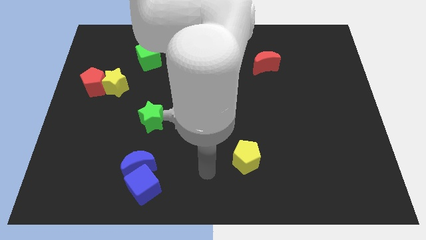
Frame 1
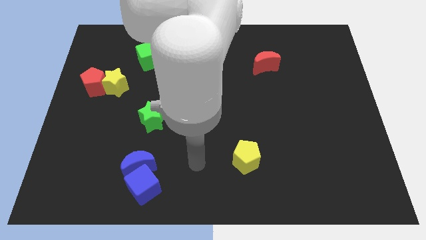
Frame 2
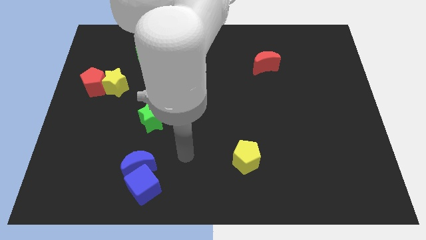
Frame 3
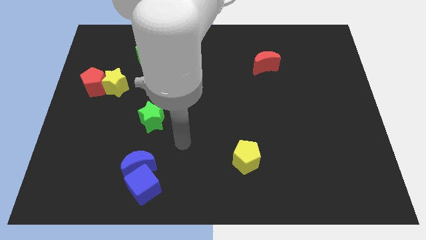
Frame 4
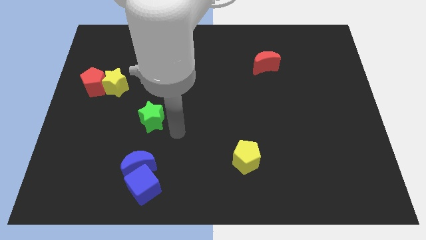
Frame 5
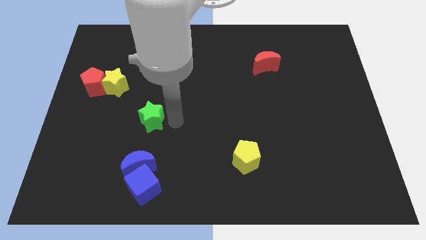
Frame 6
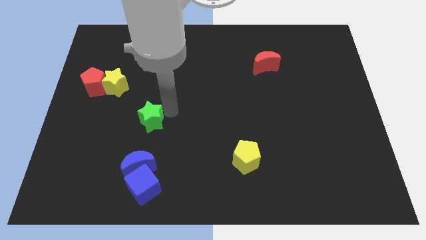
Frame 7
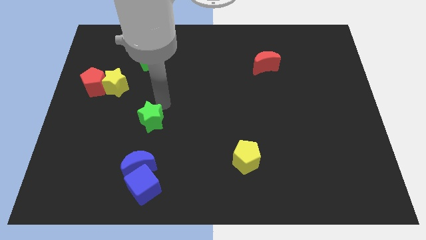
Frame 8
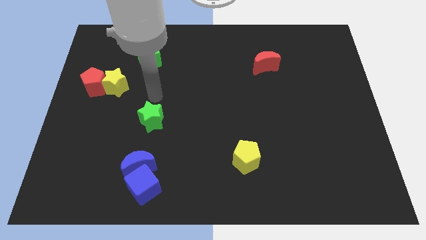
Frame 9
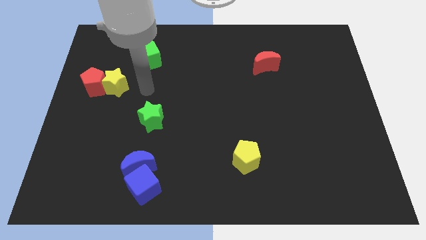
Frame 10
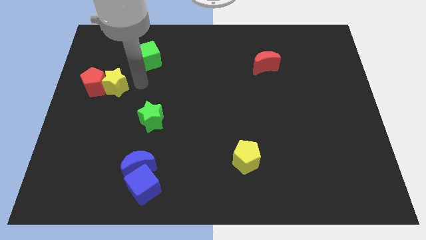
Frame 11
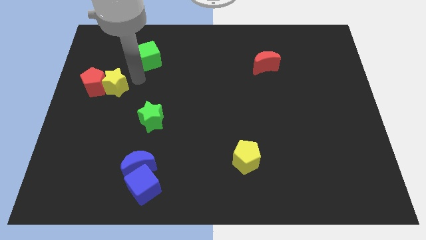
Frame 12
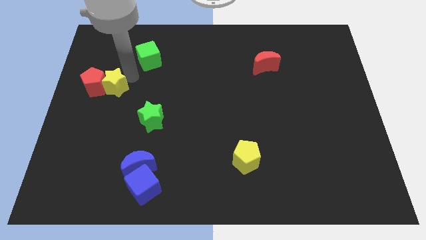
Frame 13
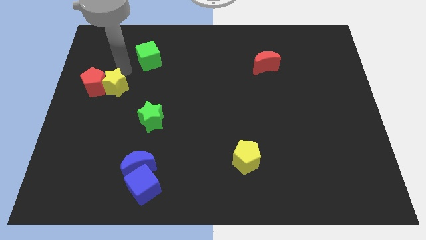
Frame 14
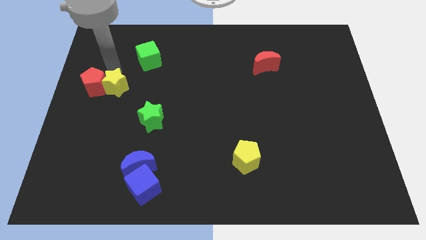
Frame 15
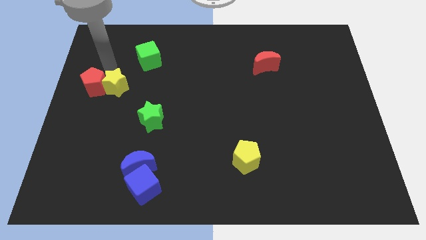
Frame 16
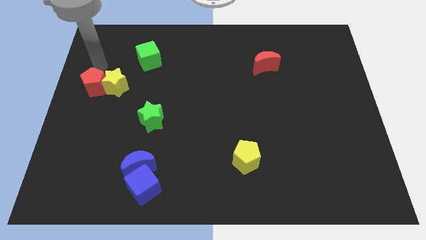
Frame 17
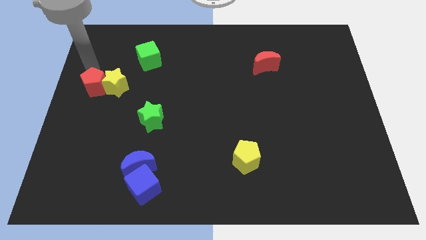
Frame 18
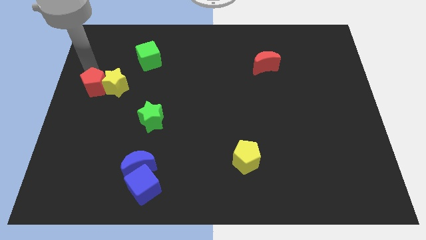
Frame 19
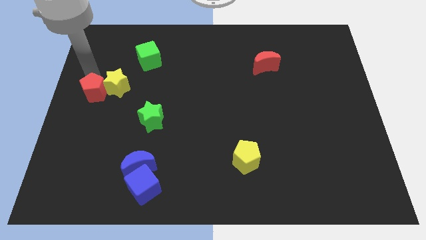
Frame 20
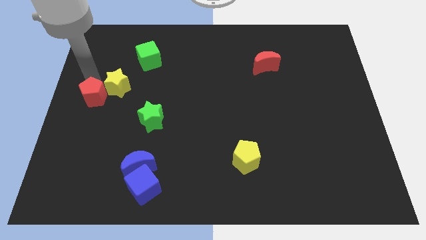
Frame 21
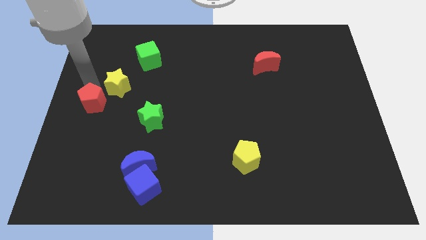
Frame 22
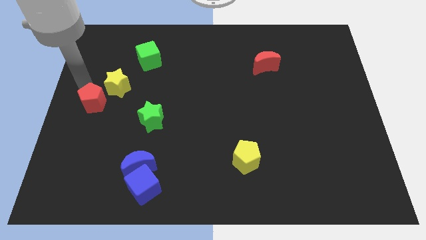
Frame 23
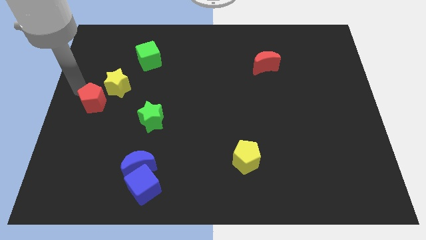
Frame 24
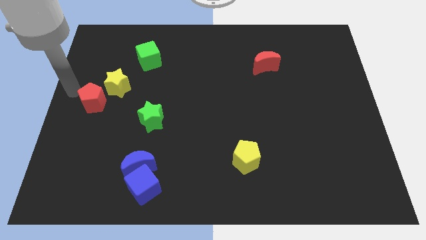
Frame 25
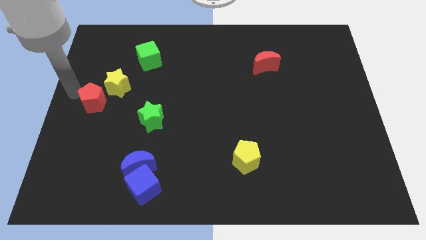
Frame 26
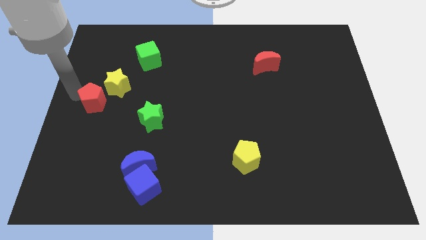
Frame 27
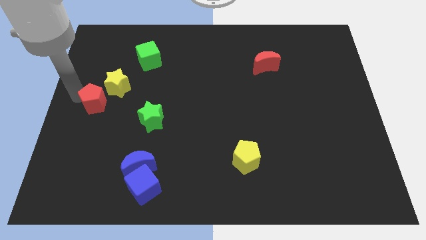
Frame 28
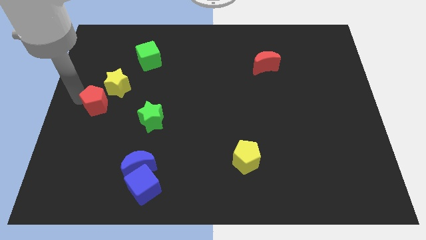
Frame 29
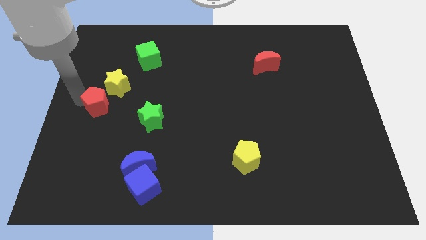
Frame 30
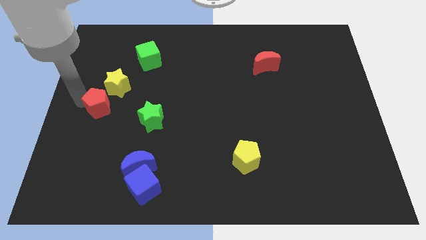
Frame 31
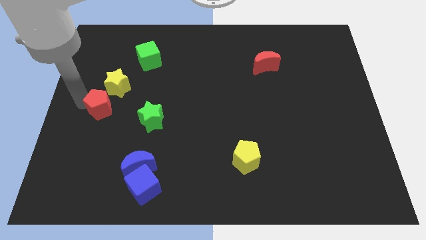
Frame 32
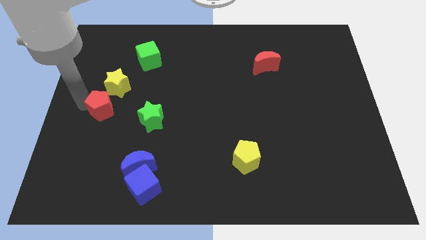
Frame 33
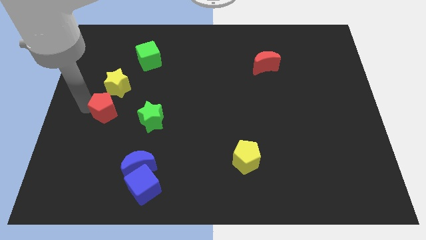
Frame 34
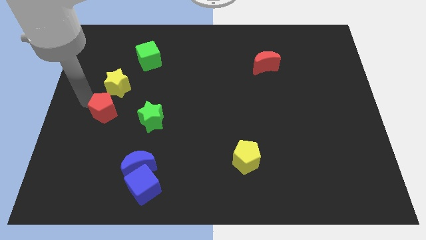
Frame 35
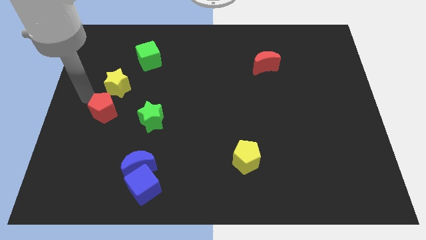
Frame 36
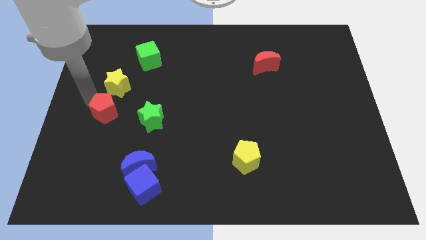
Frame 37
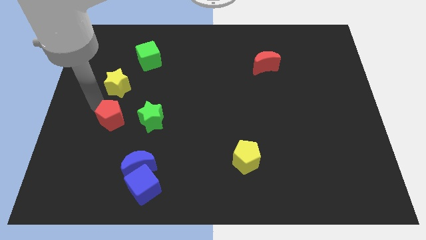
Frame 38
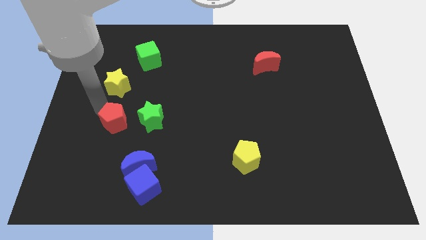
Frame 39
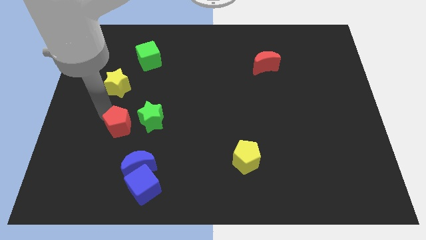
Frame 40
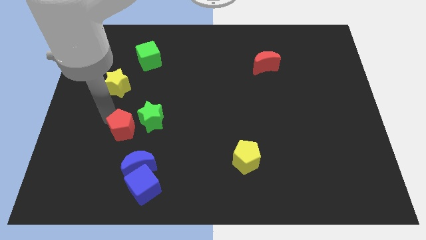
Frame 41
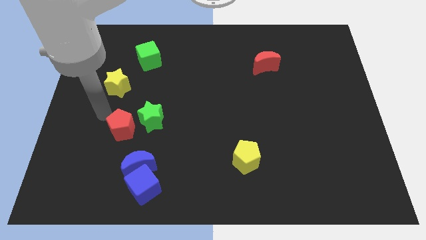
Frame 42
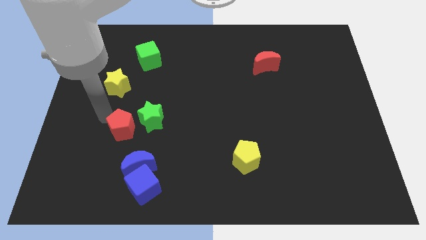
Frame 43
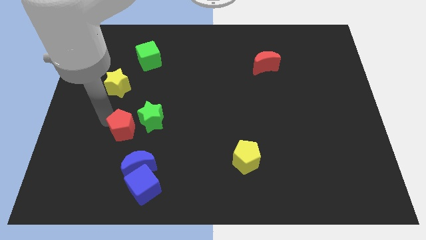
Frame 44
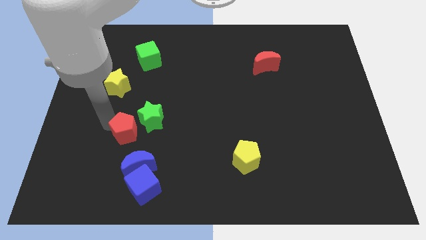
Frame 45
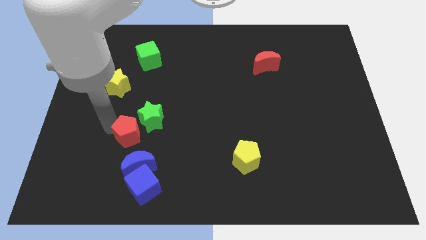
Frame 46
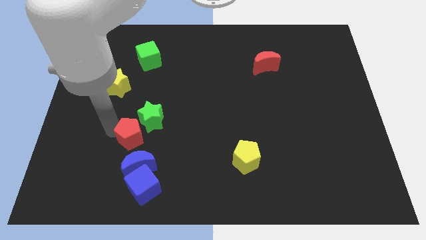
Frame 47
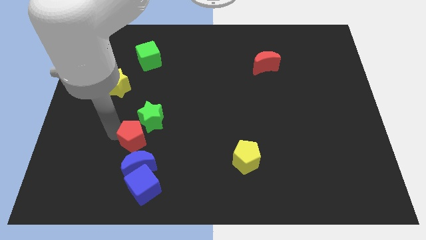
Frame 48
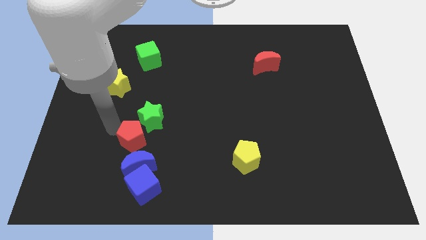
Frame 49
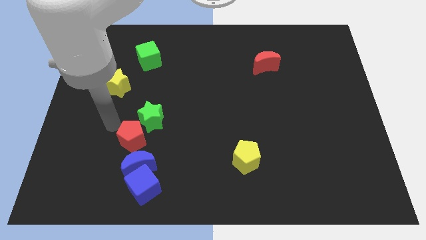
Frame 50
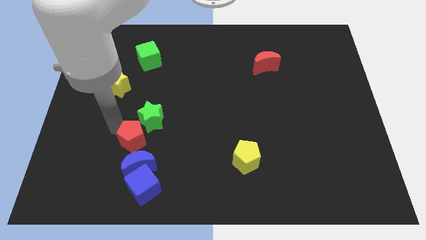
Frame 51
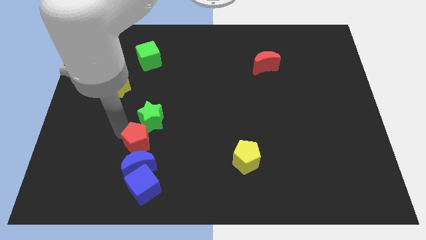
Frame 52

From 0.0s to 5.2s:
move the red pentagon downwards and to the right

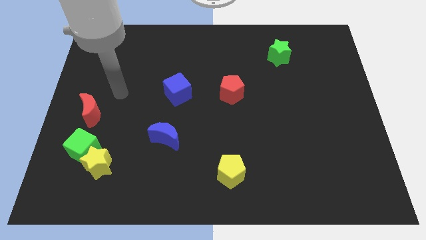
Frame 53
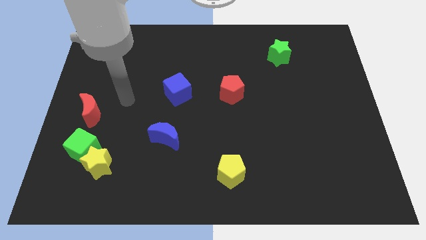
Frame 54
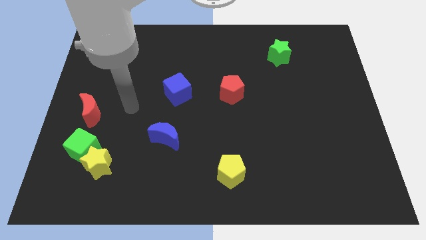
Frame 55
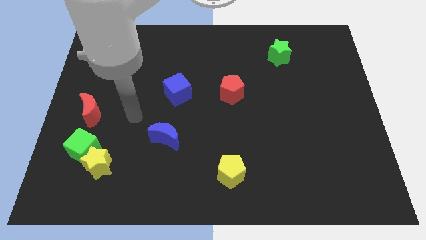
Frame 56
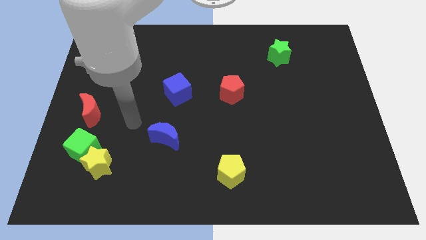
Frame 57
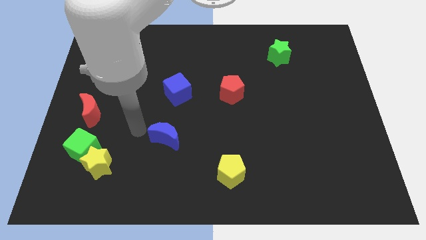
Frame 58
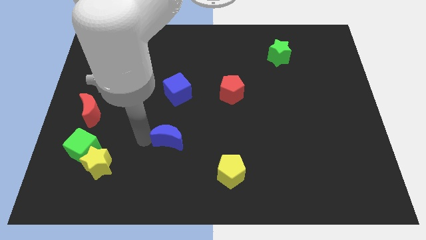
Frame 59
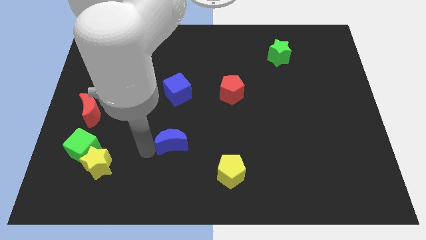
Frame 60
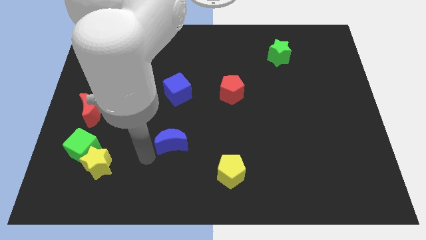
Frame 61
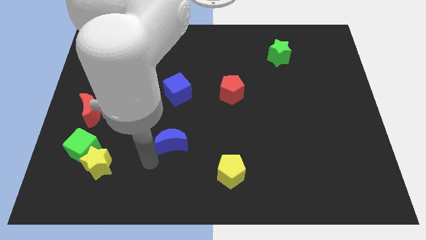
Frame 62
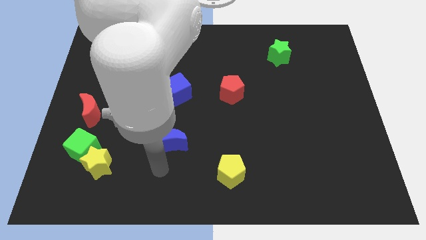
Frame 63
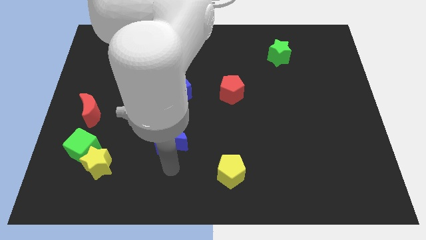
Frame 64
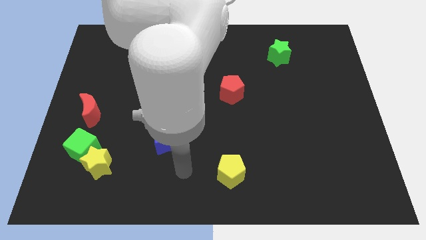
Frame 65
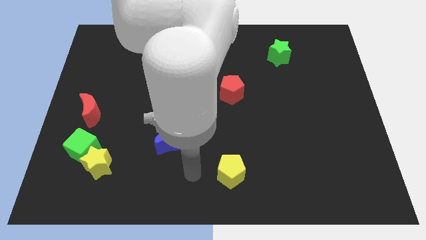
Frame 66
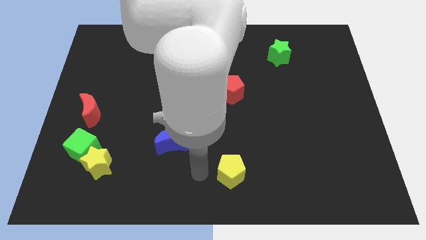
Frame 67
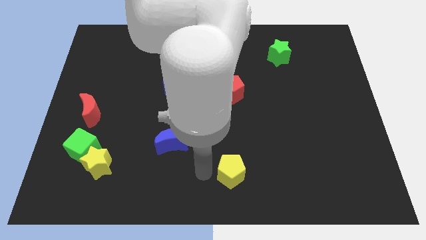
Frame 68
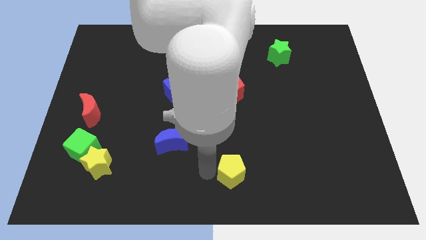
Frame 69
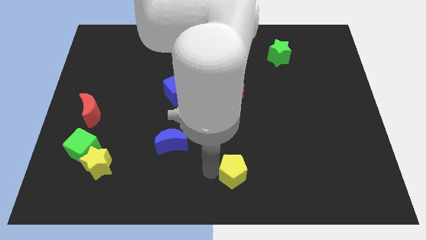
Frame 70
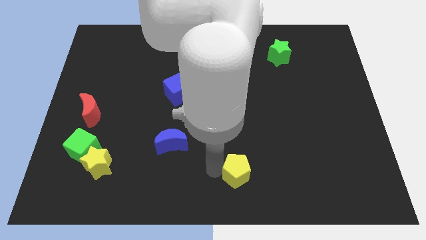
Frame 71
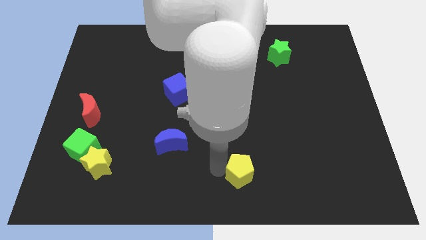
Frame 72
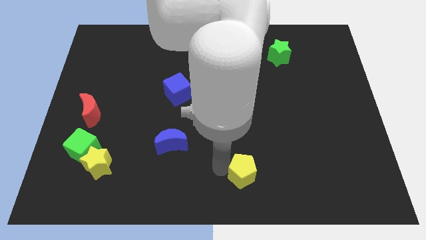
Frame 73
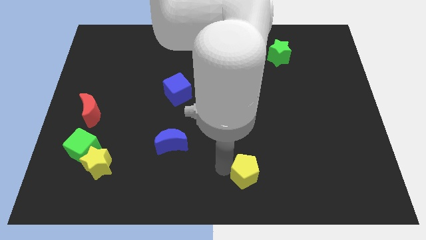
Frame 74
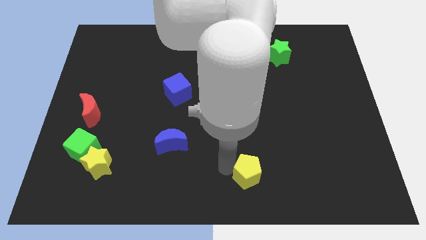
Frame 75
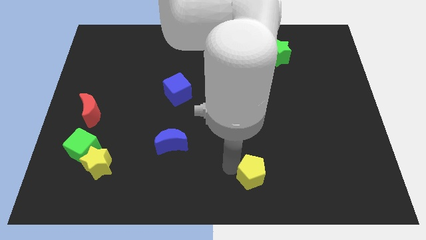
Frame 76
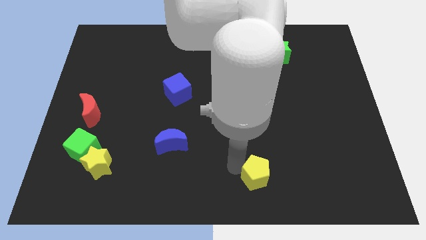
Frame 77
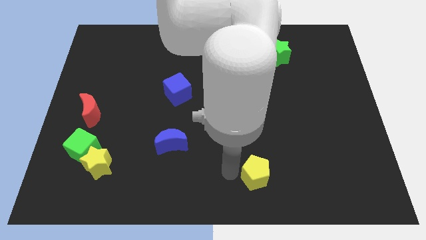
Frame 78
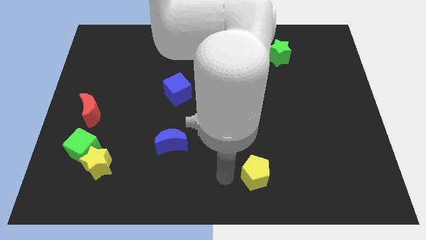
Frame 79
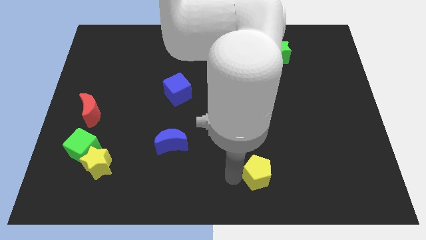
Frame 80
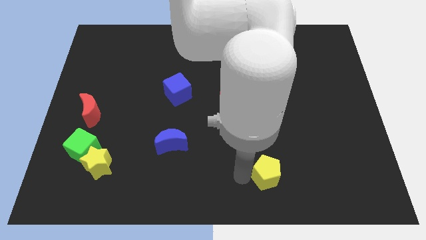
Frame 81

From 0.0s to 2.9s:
slightly push the yellow pentagon to the right

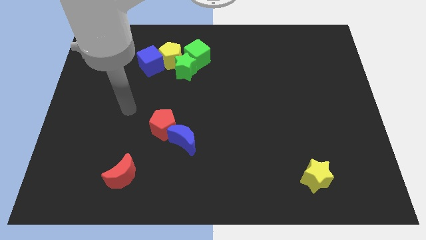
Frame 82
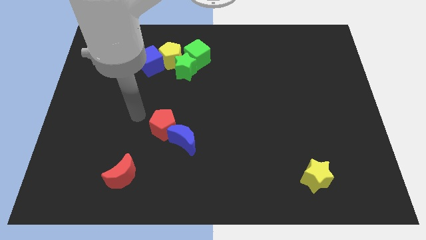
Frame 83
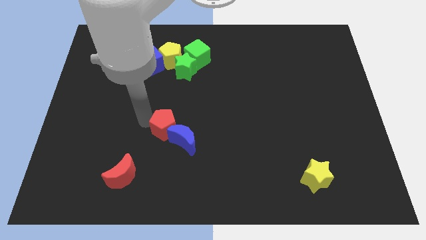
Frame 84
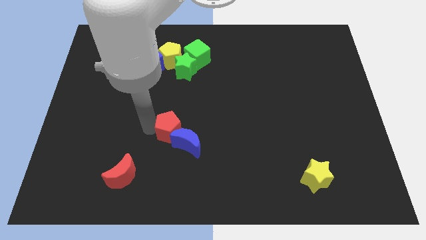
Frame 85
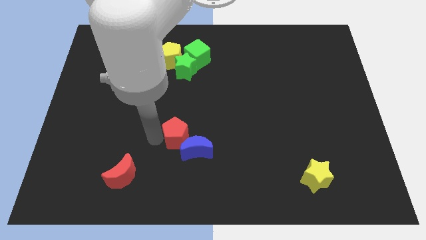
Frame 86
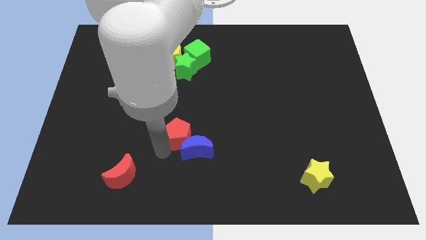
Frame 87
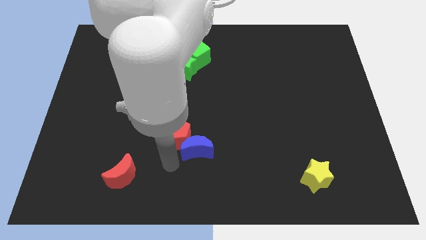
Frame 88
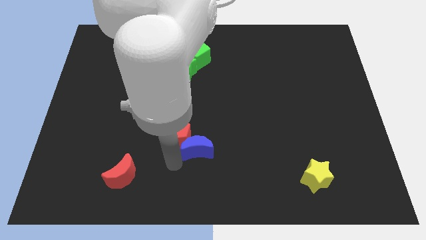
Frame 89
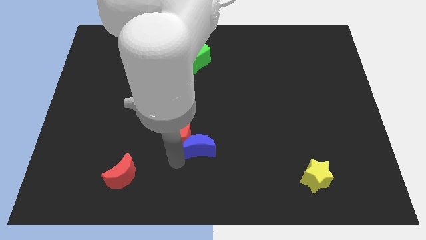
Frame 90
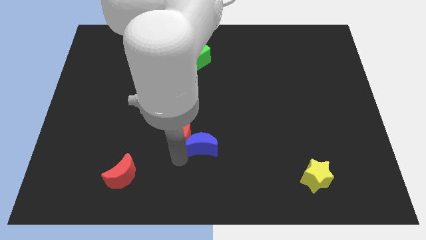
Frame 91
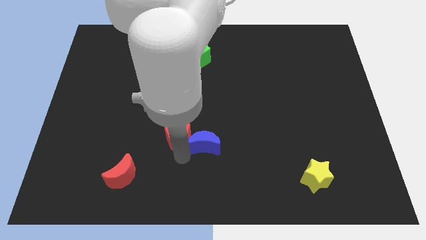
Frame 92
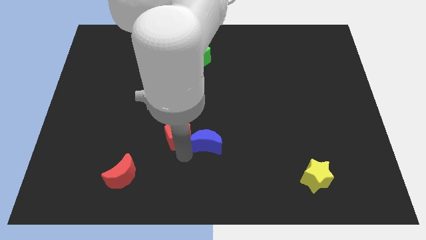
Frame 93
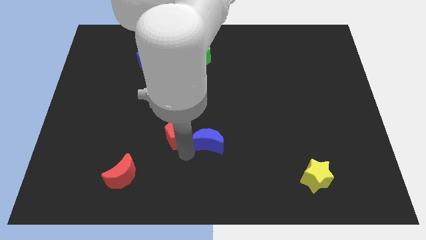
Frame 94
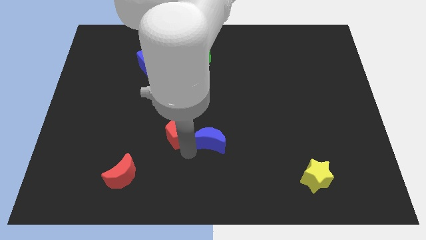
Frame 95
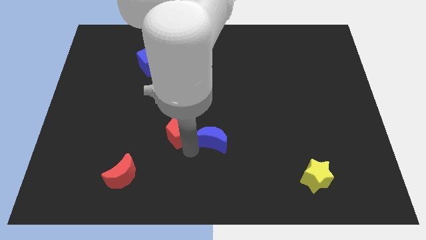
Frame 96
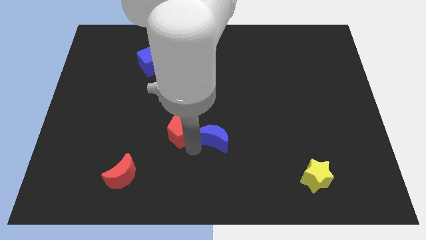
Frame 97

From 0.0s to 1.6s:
slightly push the blue moon right
